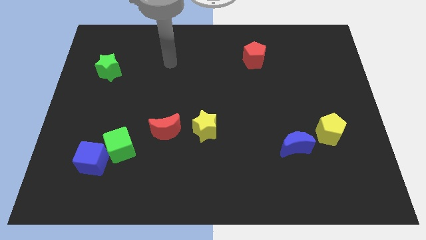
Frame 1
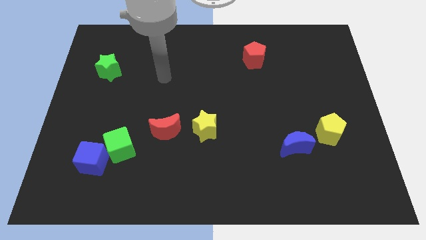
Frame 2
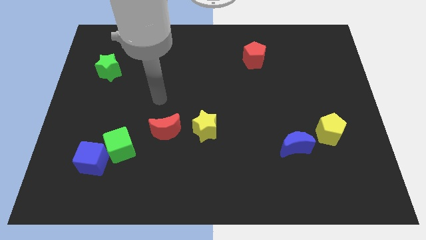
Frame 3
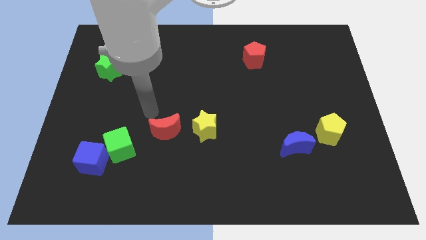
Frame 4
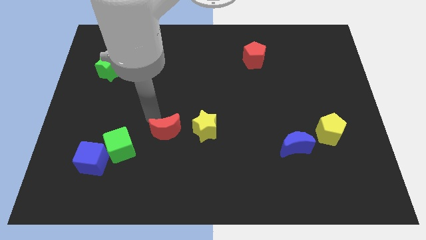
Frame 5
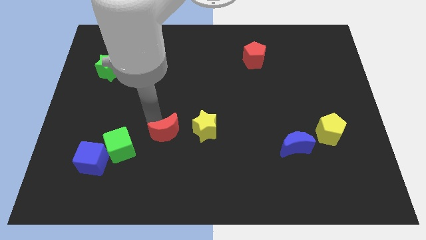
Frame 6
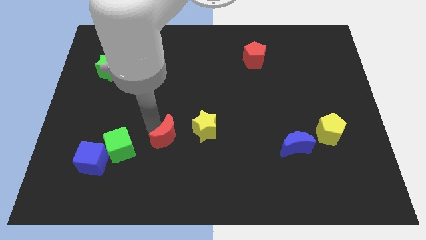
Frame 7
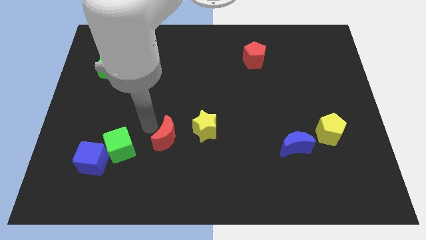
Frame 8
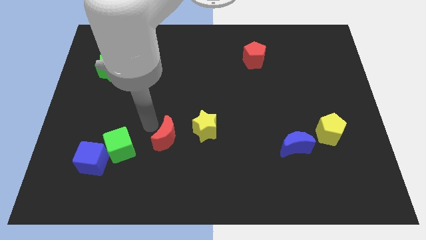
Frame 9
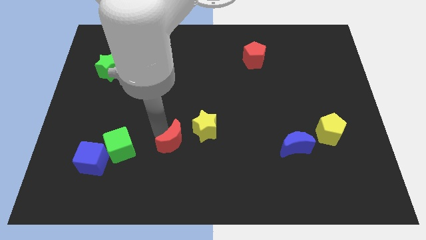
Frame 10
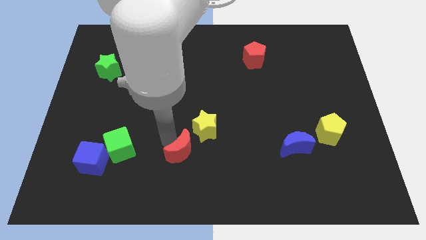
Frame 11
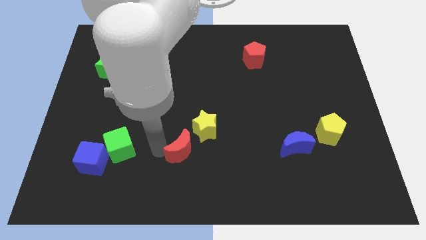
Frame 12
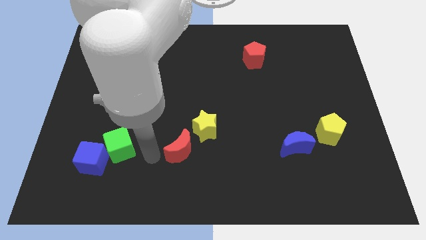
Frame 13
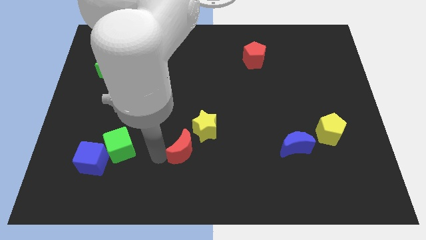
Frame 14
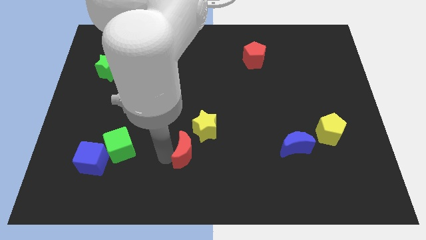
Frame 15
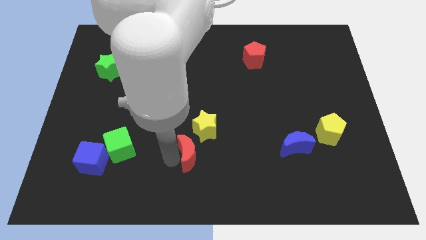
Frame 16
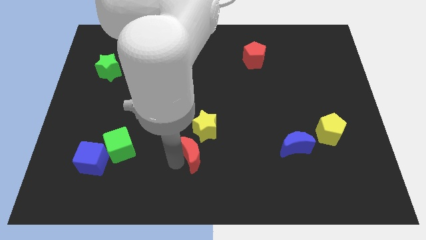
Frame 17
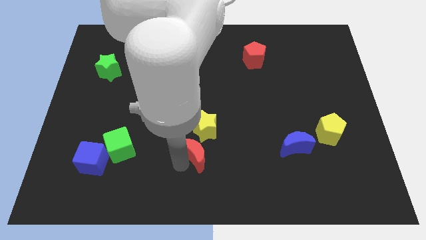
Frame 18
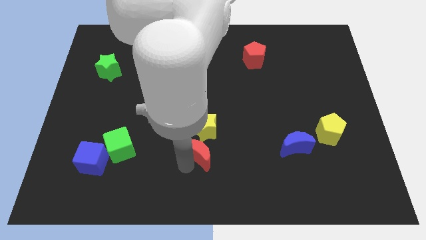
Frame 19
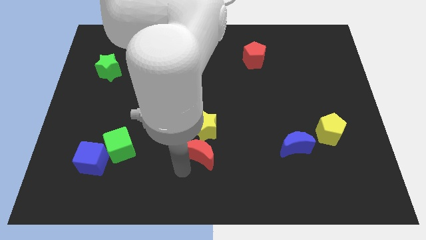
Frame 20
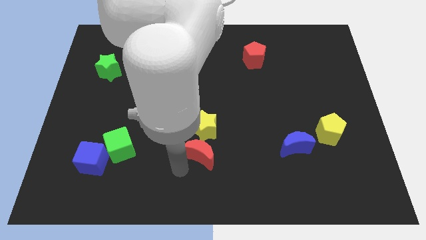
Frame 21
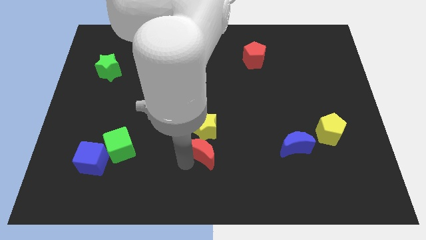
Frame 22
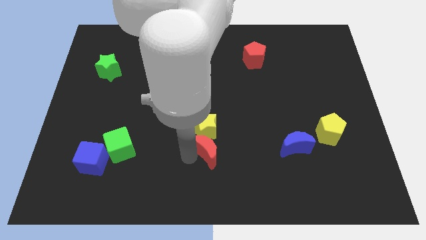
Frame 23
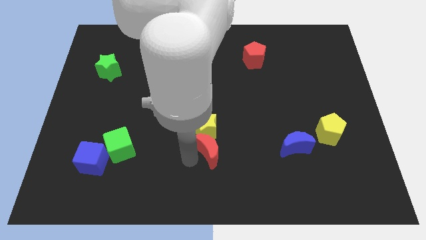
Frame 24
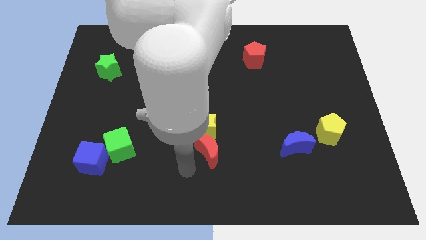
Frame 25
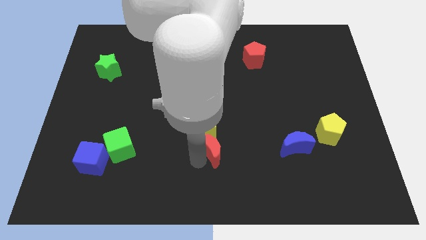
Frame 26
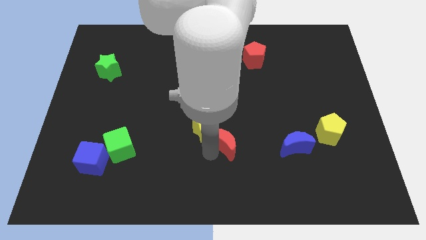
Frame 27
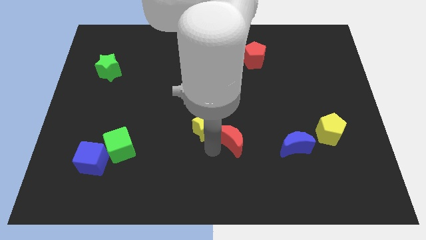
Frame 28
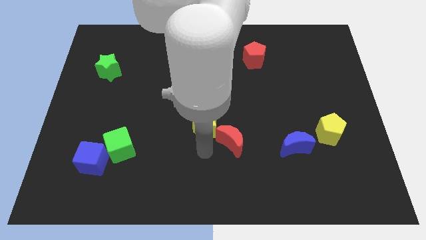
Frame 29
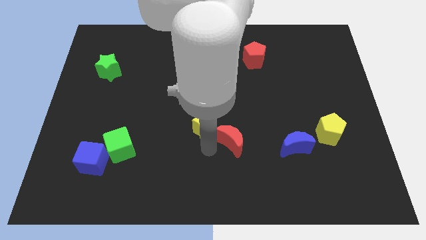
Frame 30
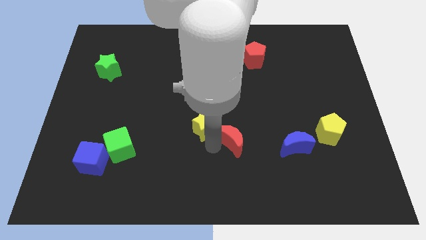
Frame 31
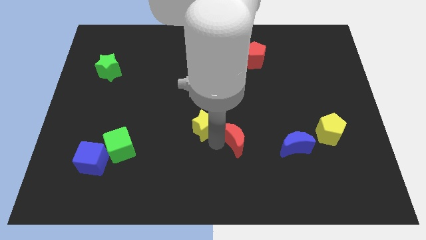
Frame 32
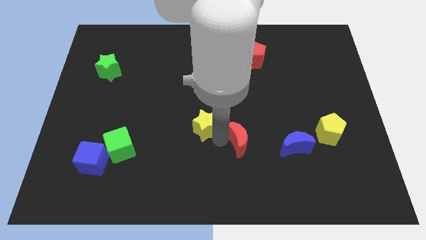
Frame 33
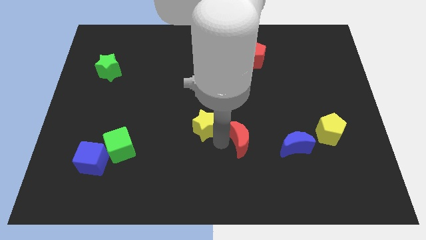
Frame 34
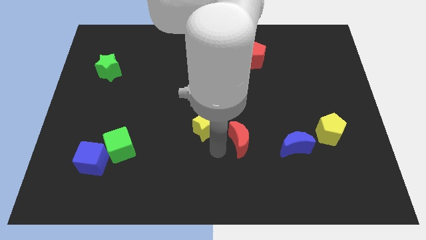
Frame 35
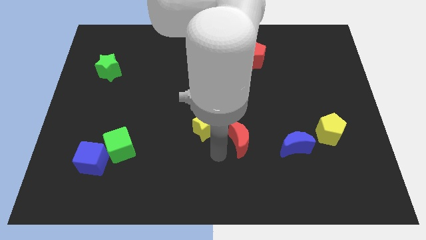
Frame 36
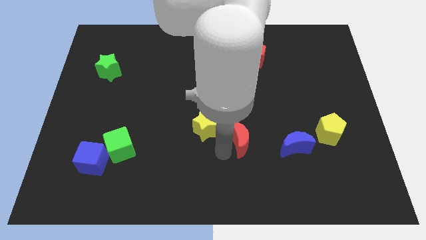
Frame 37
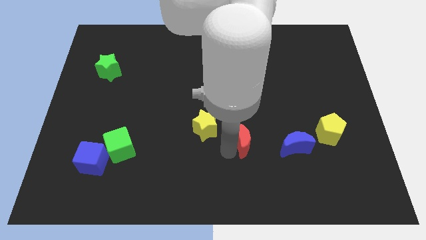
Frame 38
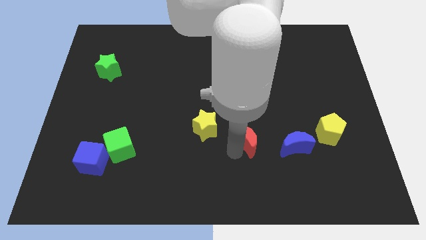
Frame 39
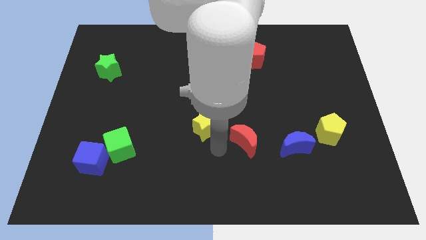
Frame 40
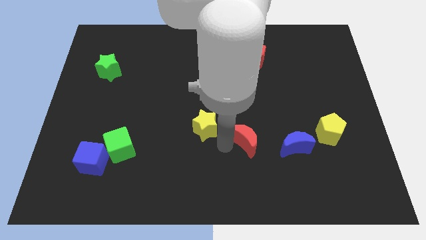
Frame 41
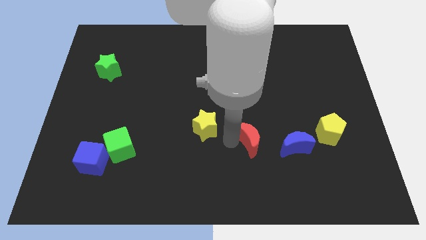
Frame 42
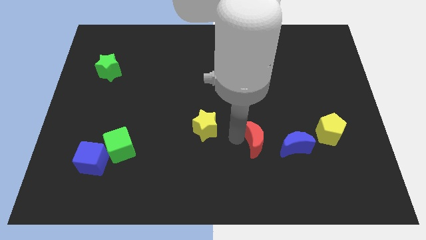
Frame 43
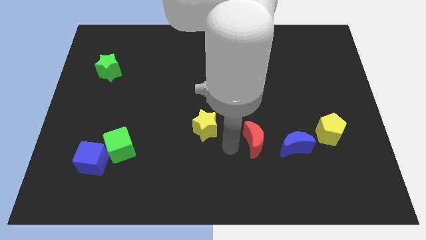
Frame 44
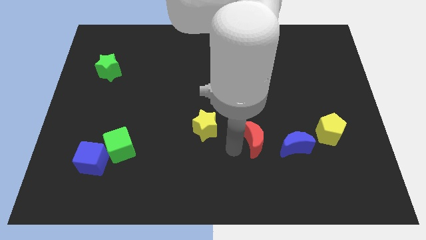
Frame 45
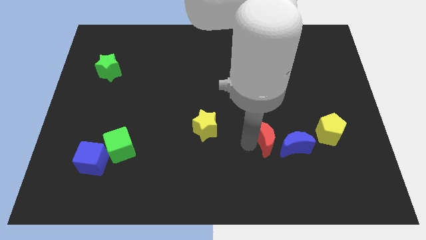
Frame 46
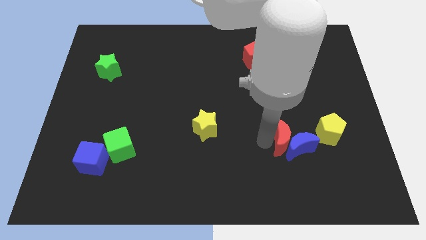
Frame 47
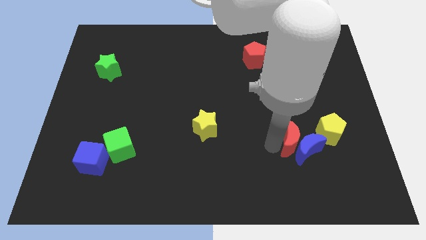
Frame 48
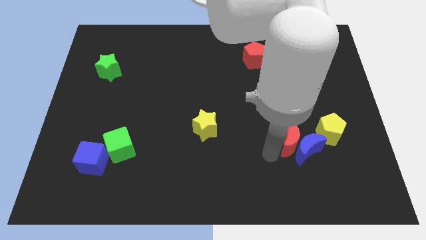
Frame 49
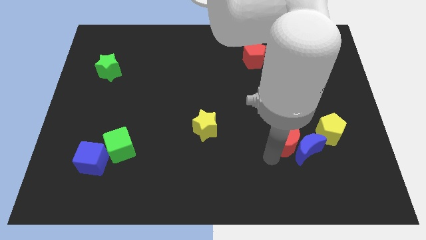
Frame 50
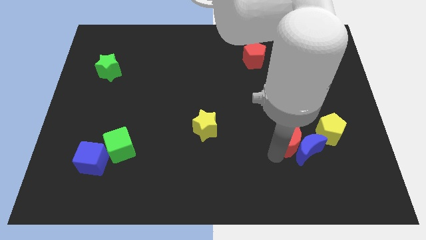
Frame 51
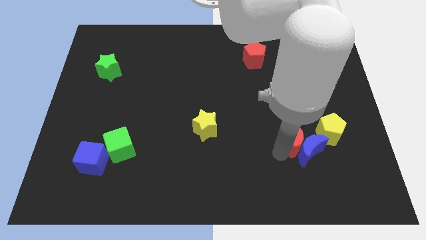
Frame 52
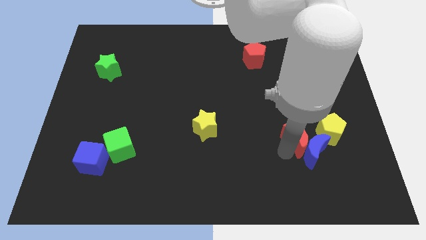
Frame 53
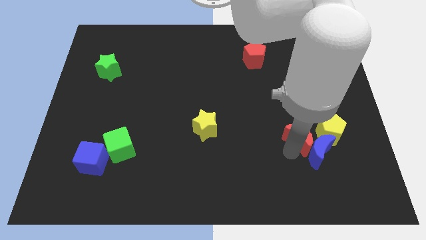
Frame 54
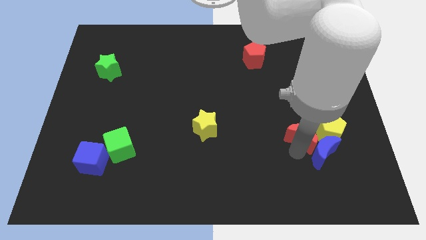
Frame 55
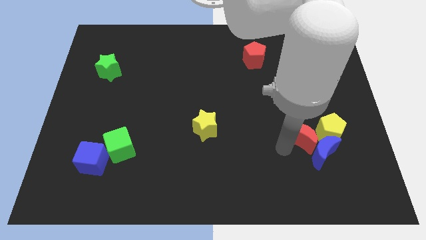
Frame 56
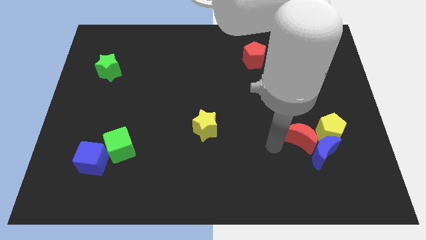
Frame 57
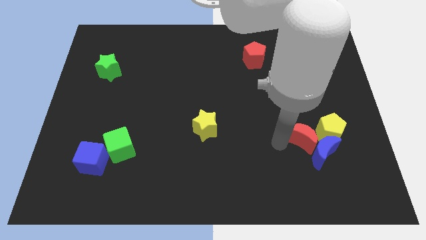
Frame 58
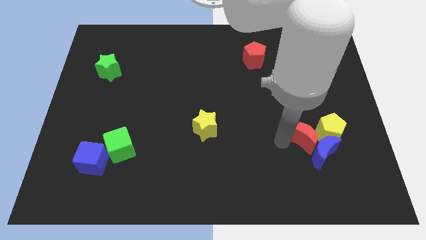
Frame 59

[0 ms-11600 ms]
slide the red moon to the yellow pentagon

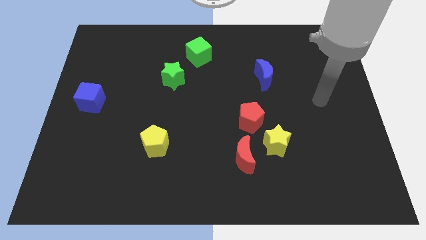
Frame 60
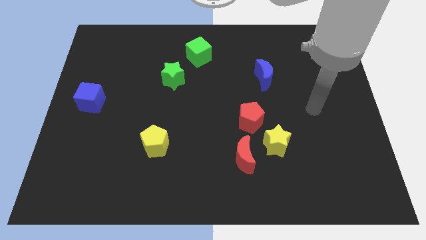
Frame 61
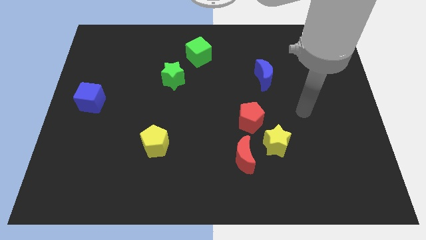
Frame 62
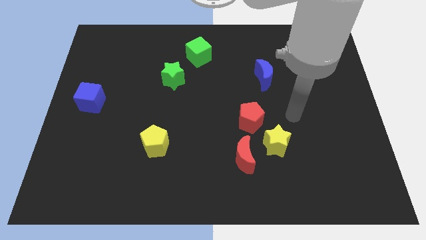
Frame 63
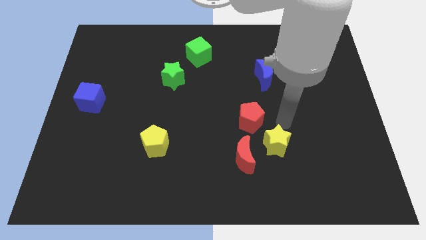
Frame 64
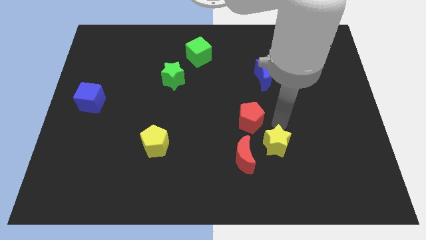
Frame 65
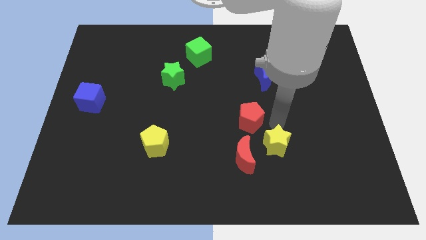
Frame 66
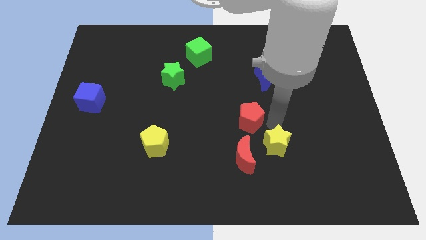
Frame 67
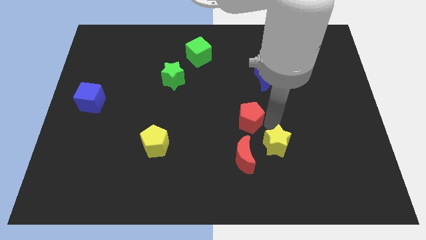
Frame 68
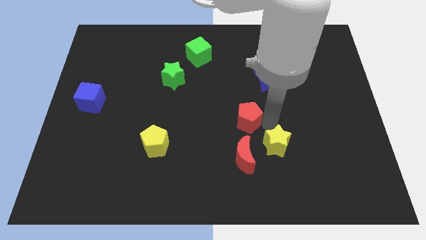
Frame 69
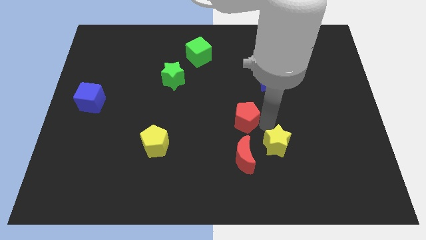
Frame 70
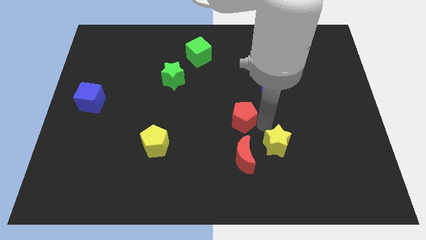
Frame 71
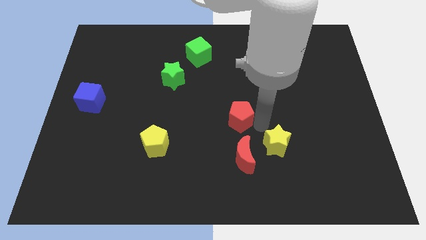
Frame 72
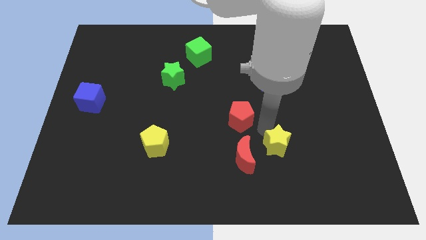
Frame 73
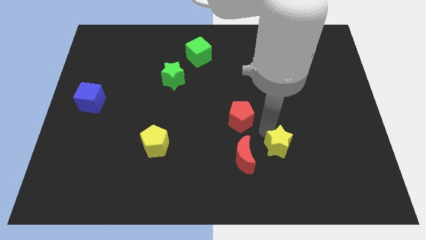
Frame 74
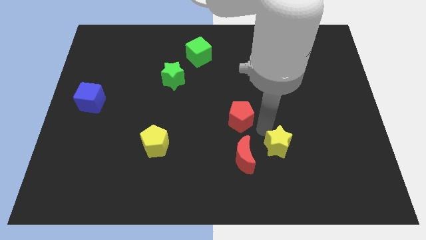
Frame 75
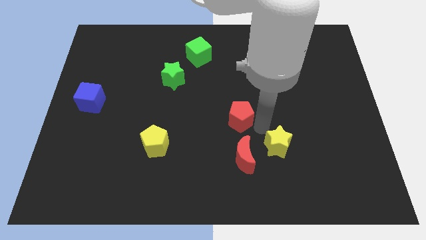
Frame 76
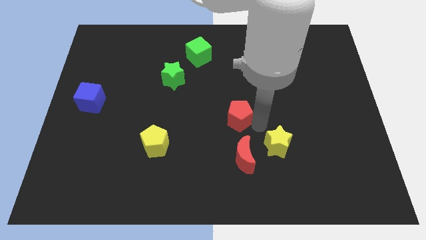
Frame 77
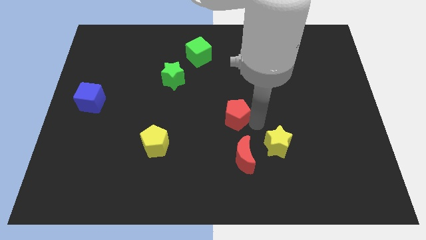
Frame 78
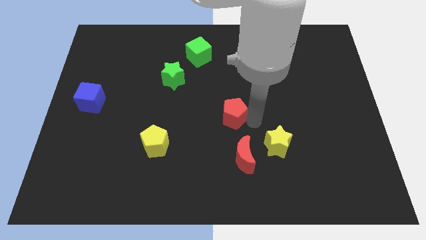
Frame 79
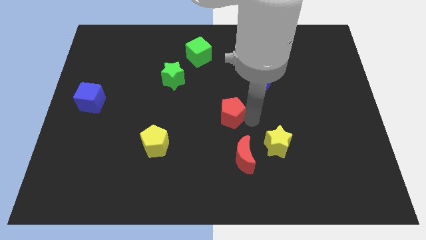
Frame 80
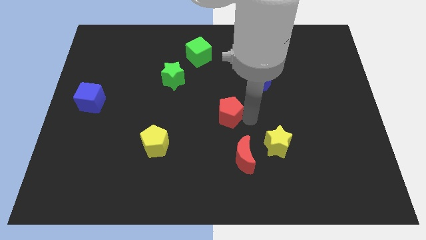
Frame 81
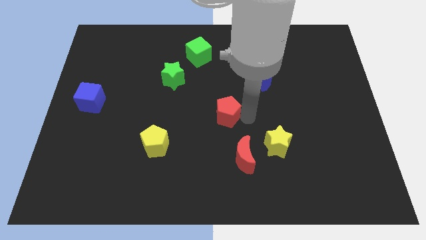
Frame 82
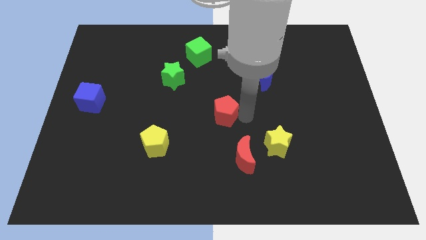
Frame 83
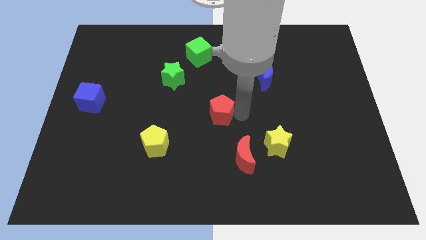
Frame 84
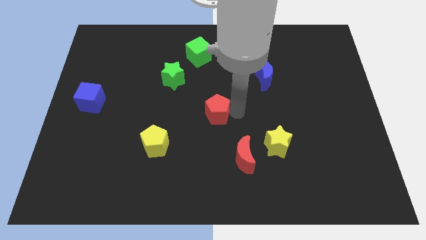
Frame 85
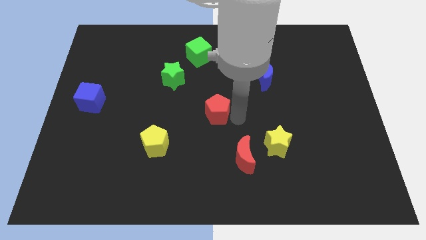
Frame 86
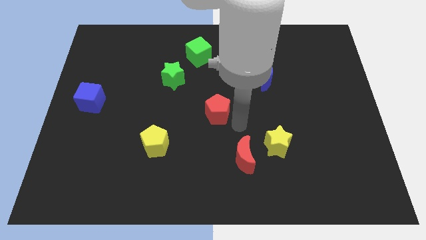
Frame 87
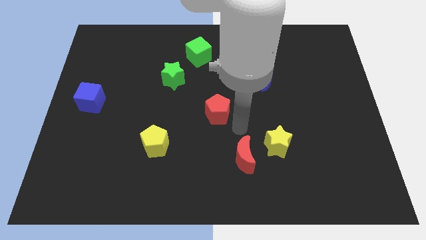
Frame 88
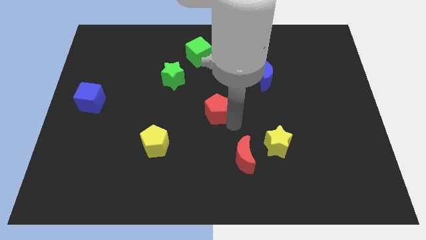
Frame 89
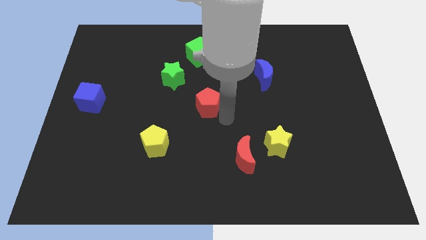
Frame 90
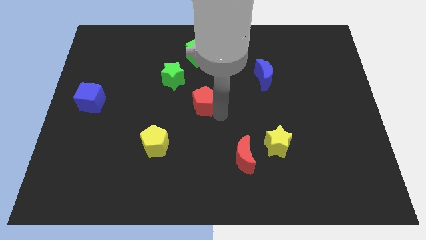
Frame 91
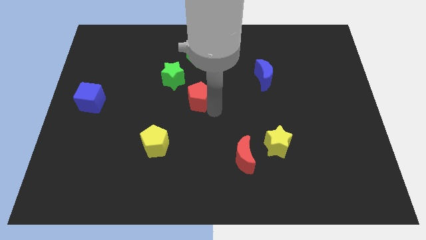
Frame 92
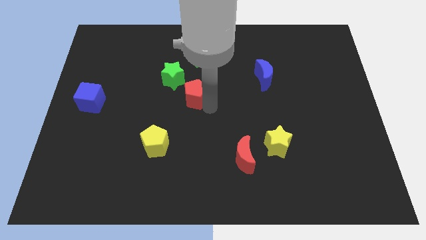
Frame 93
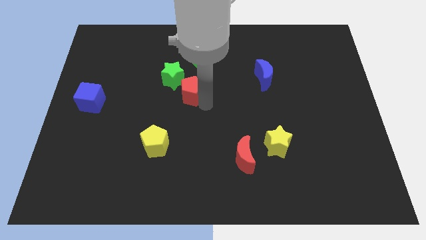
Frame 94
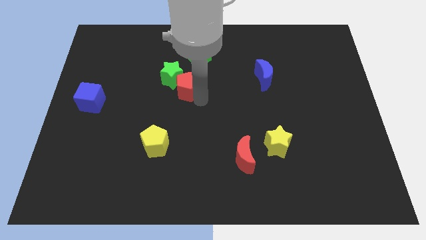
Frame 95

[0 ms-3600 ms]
put the red pentagon next to the green star
